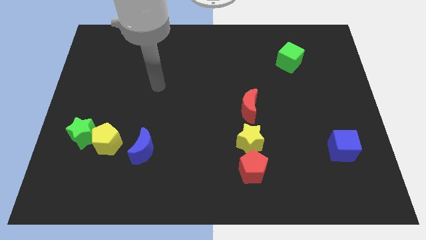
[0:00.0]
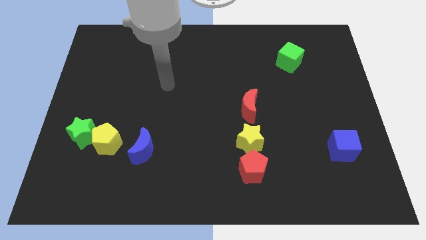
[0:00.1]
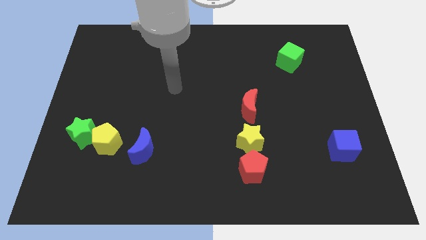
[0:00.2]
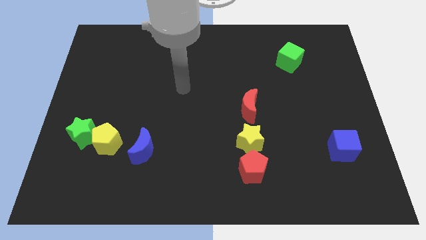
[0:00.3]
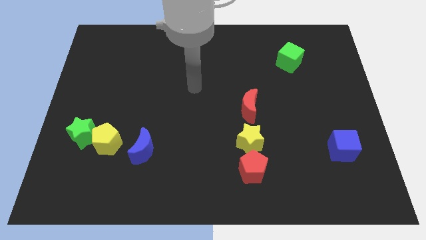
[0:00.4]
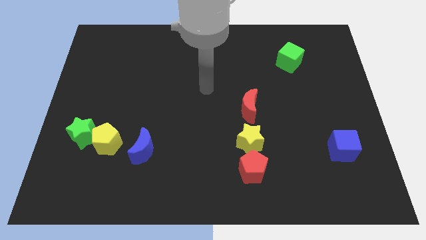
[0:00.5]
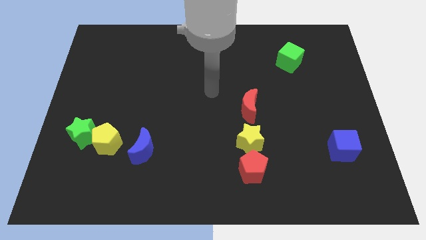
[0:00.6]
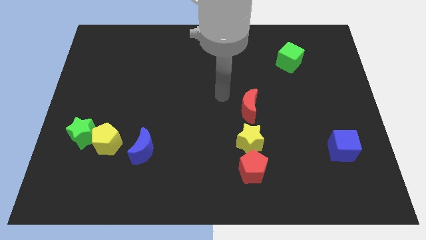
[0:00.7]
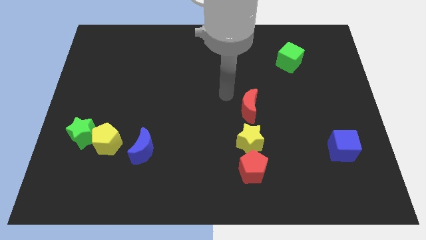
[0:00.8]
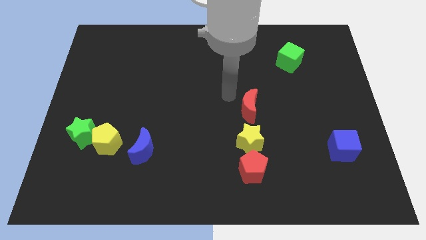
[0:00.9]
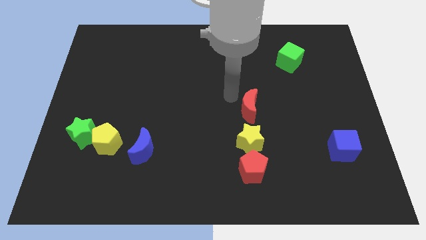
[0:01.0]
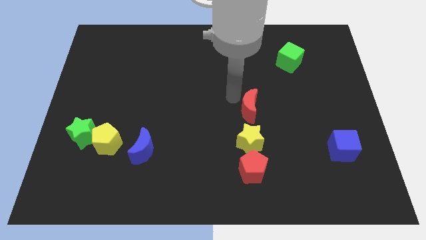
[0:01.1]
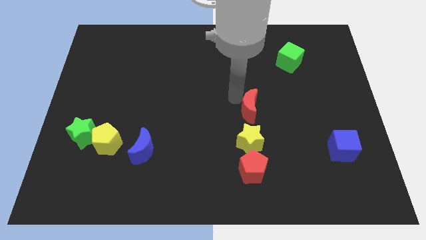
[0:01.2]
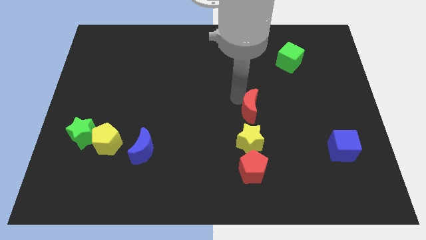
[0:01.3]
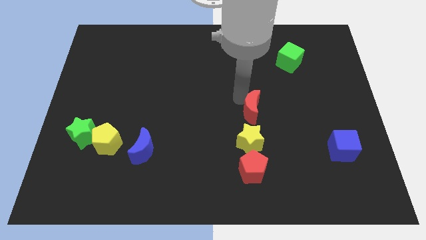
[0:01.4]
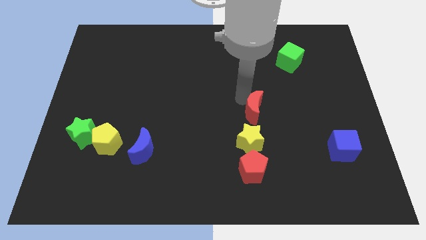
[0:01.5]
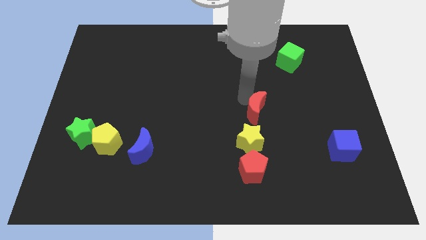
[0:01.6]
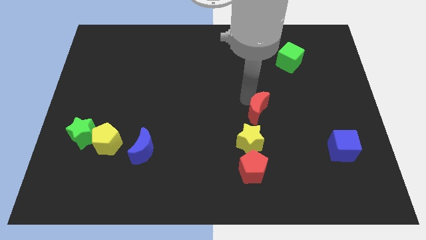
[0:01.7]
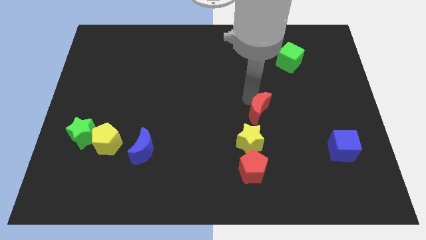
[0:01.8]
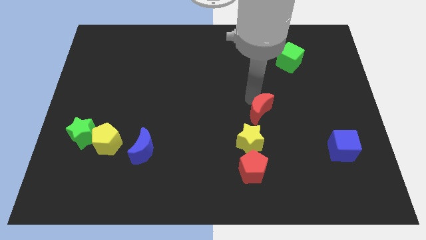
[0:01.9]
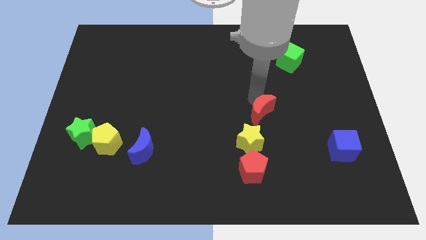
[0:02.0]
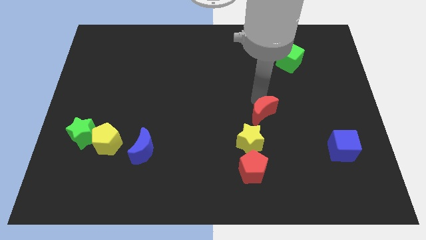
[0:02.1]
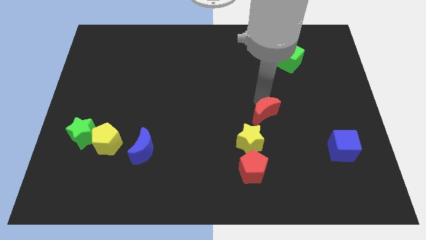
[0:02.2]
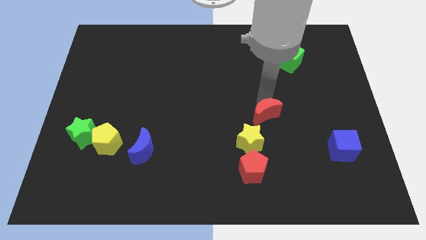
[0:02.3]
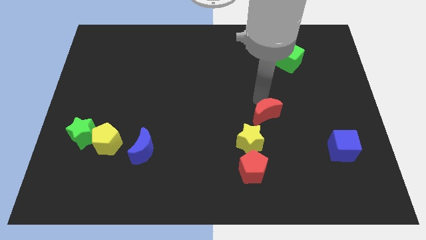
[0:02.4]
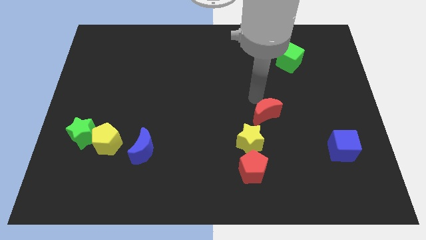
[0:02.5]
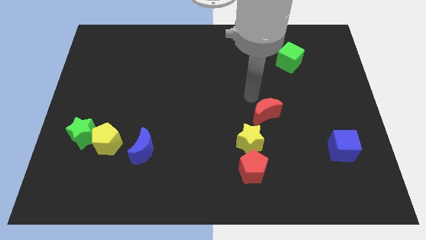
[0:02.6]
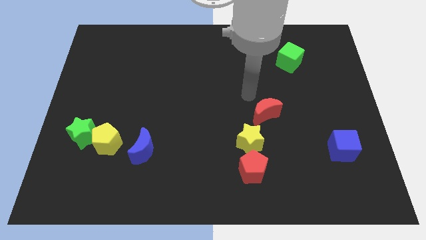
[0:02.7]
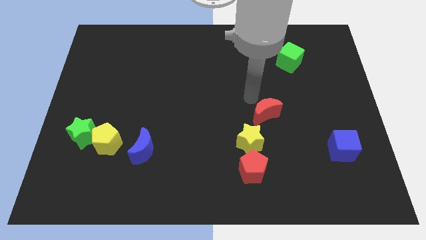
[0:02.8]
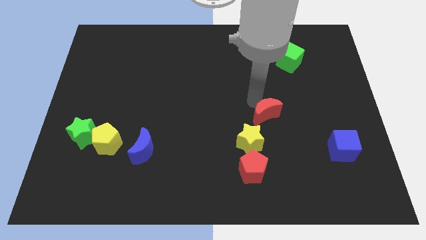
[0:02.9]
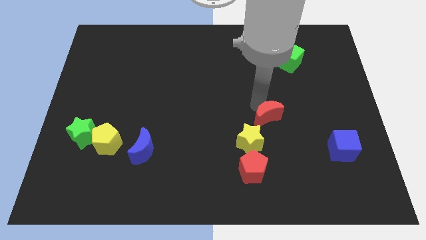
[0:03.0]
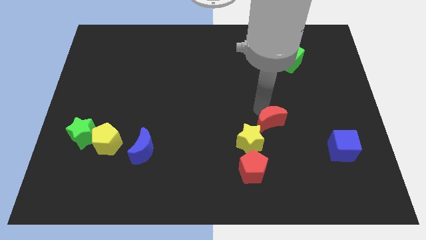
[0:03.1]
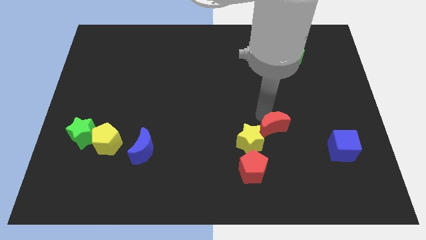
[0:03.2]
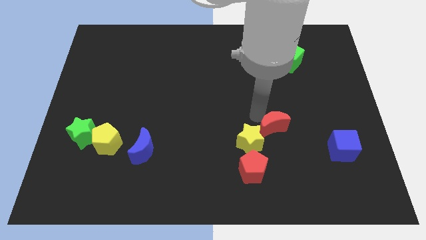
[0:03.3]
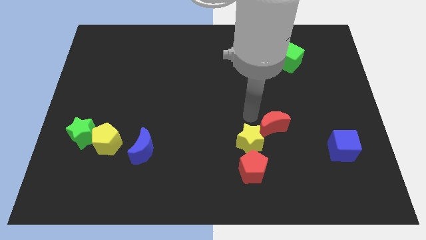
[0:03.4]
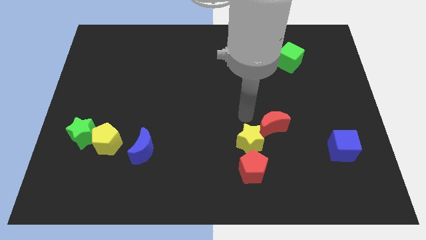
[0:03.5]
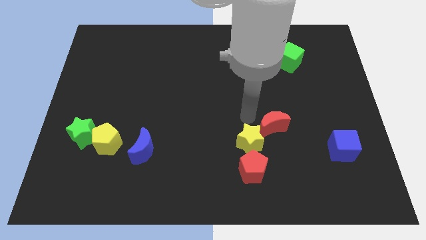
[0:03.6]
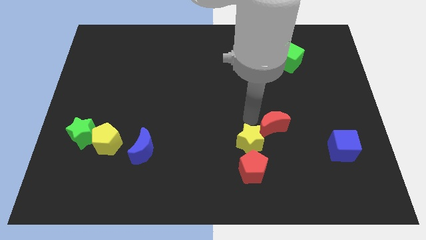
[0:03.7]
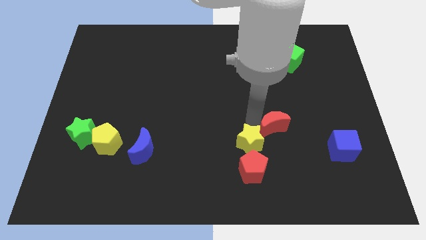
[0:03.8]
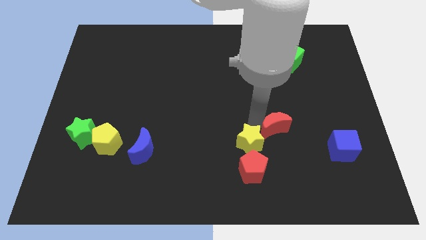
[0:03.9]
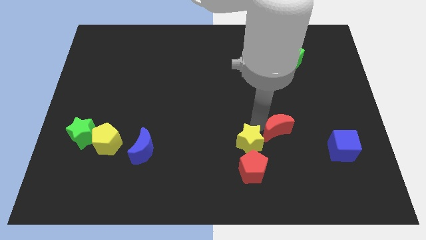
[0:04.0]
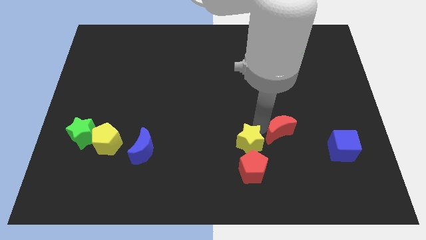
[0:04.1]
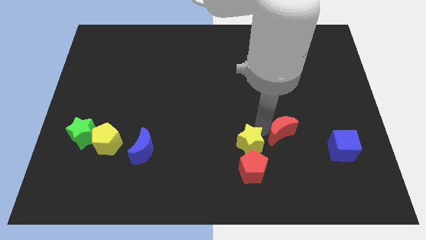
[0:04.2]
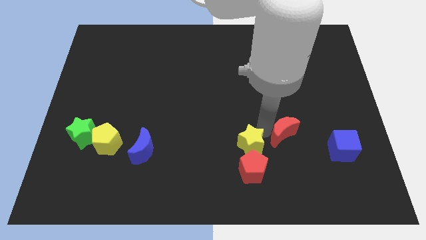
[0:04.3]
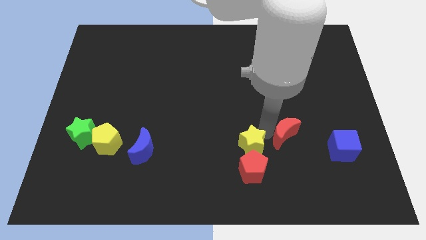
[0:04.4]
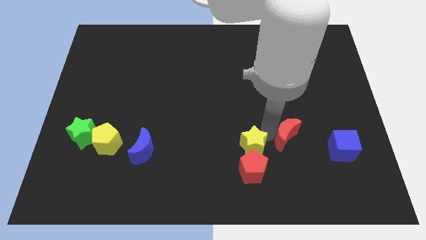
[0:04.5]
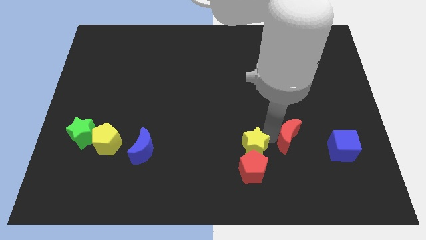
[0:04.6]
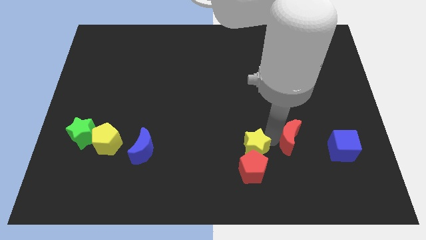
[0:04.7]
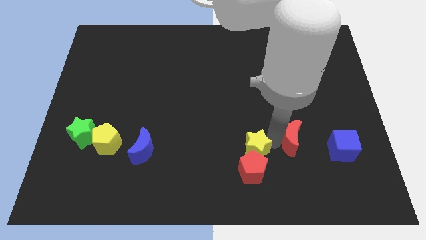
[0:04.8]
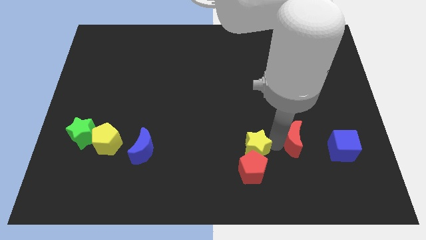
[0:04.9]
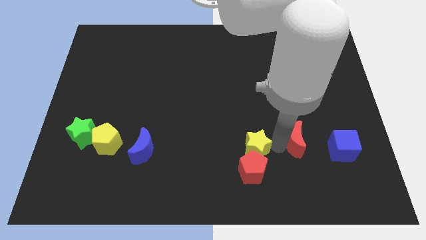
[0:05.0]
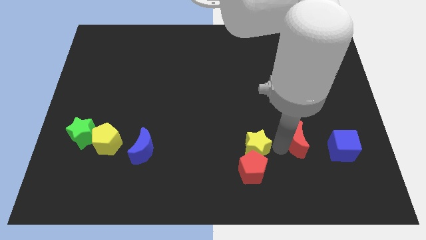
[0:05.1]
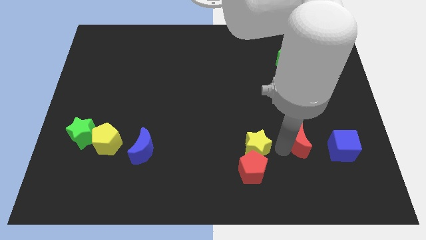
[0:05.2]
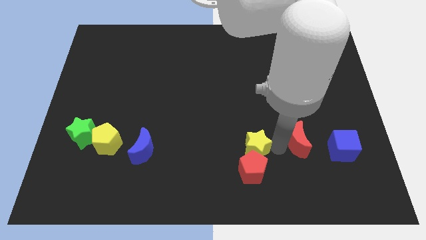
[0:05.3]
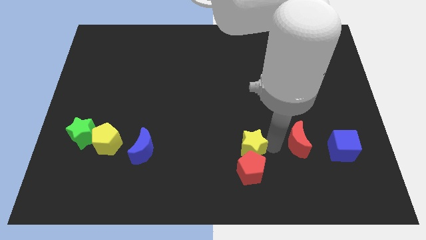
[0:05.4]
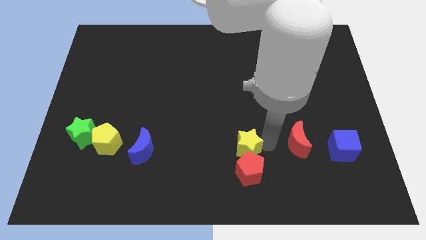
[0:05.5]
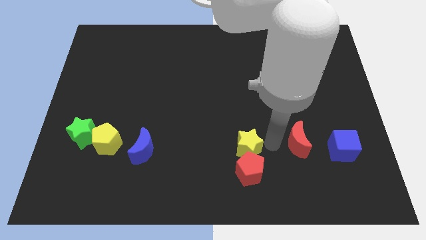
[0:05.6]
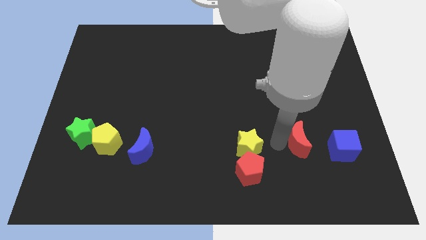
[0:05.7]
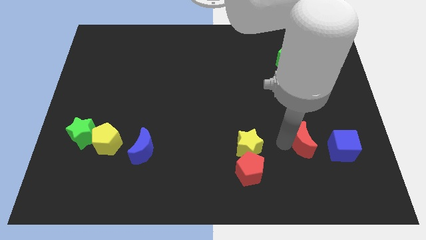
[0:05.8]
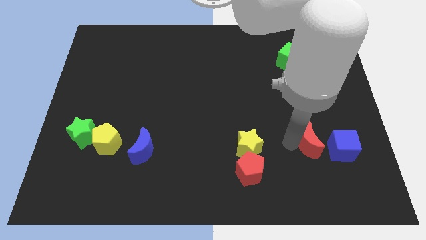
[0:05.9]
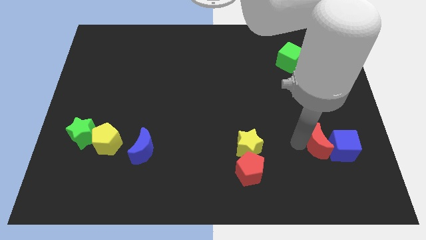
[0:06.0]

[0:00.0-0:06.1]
put the red moon to the blue cube

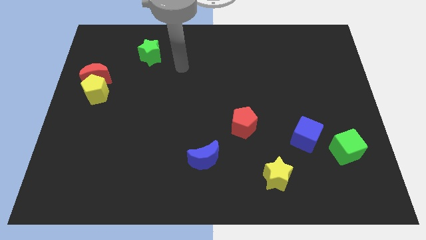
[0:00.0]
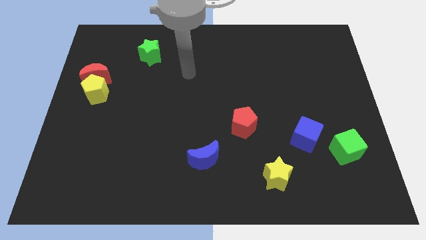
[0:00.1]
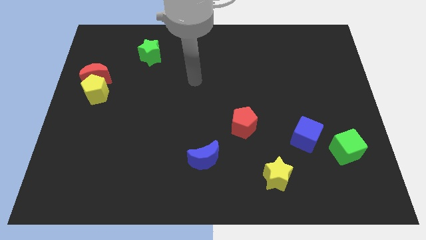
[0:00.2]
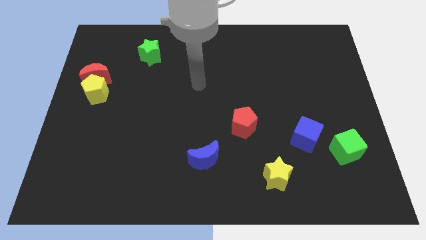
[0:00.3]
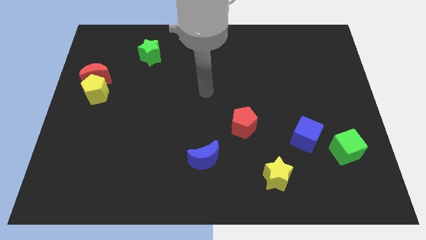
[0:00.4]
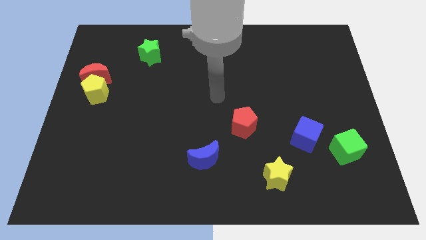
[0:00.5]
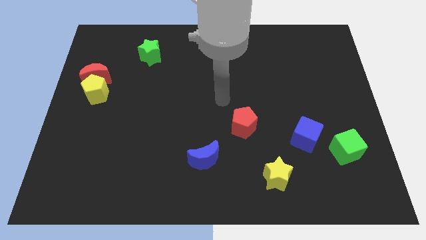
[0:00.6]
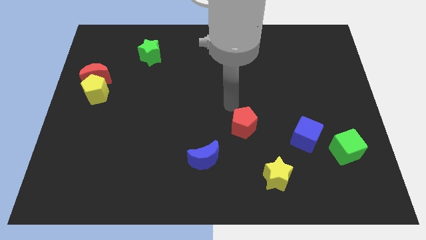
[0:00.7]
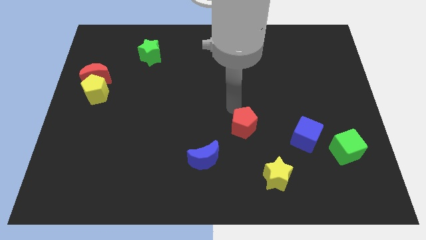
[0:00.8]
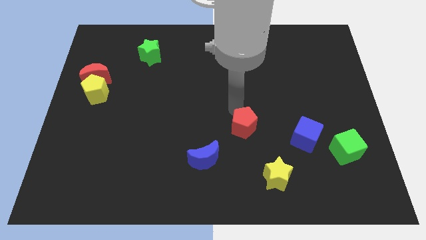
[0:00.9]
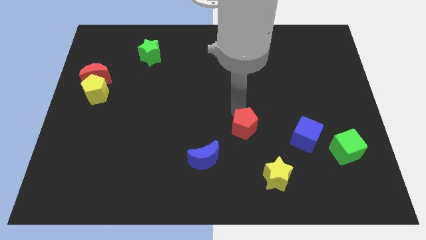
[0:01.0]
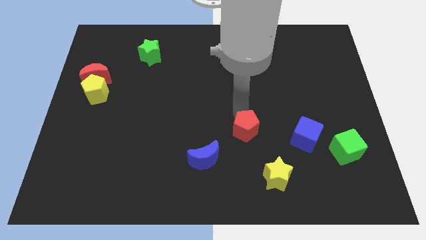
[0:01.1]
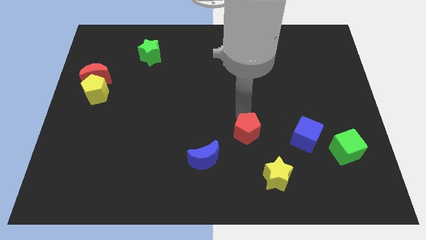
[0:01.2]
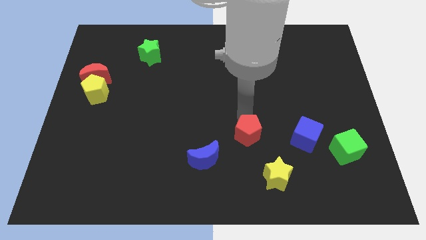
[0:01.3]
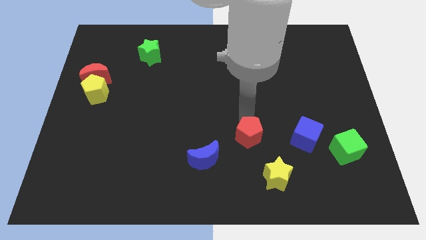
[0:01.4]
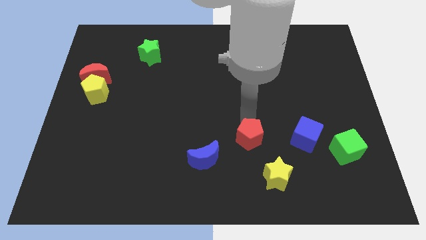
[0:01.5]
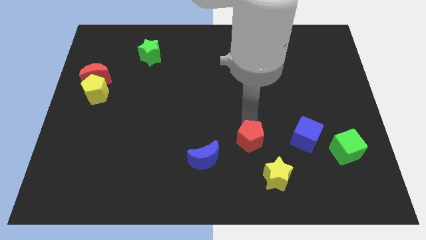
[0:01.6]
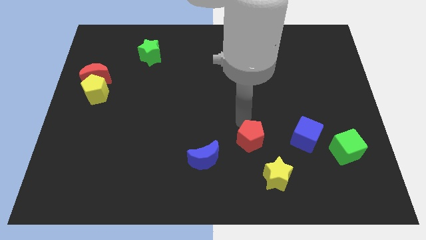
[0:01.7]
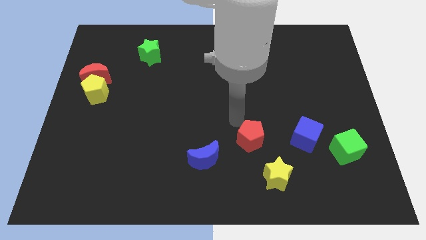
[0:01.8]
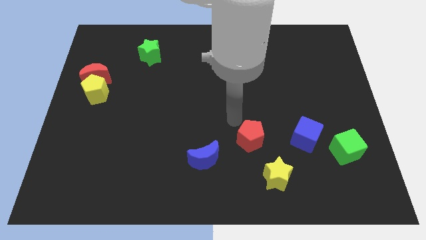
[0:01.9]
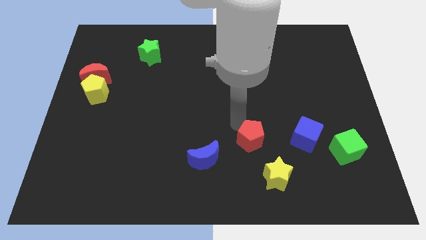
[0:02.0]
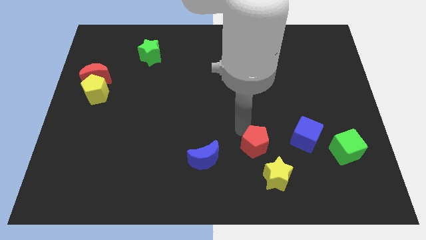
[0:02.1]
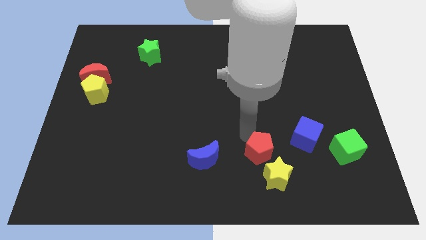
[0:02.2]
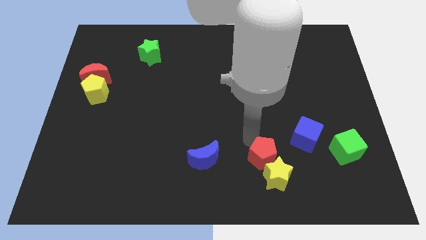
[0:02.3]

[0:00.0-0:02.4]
move the red pentagon next to the yellow star
